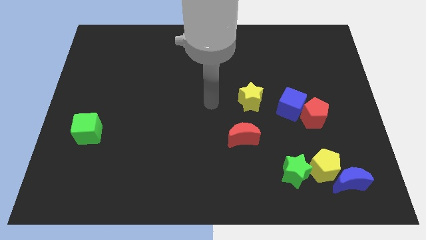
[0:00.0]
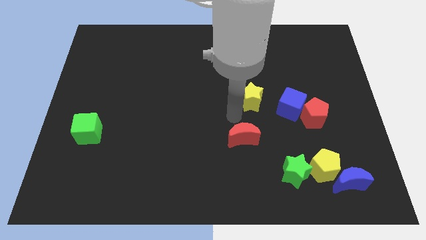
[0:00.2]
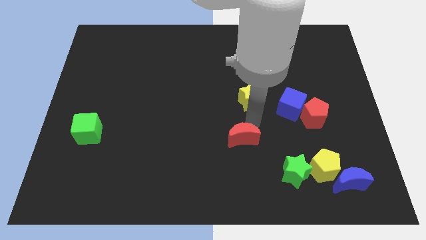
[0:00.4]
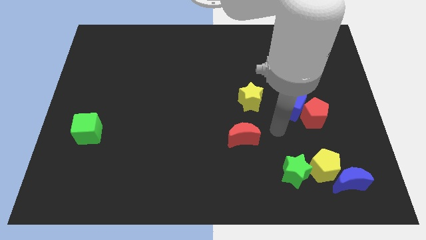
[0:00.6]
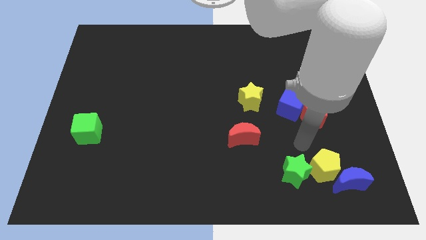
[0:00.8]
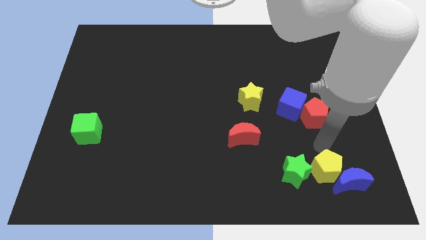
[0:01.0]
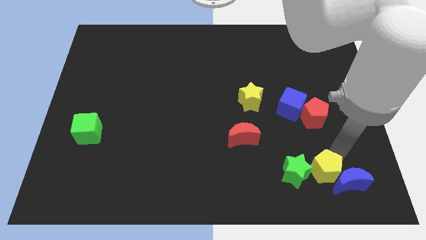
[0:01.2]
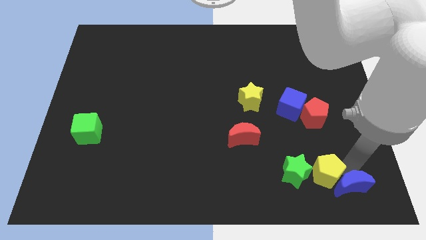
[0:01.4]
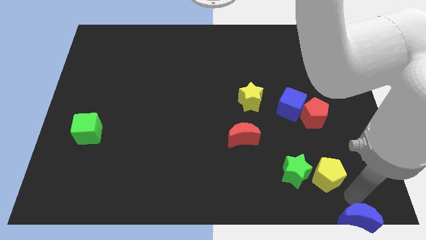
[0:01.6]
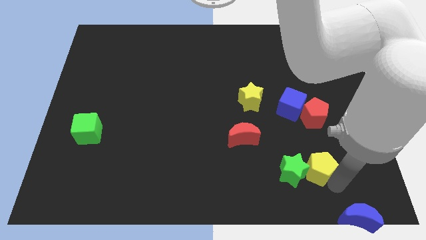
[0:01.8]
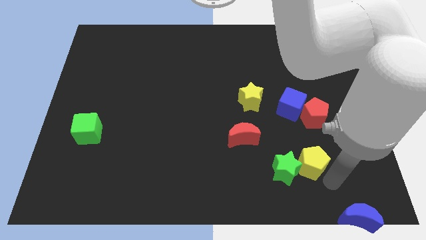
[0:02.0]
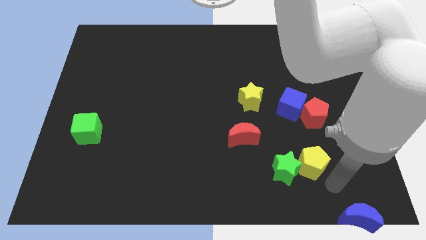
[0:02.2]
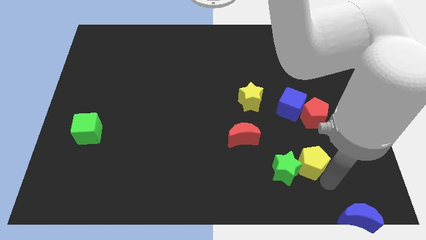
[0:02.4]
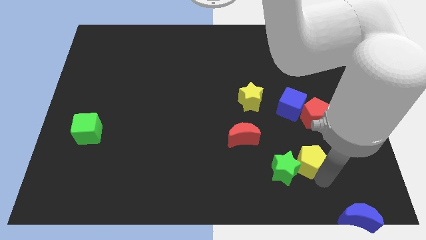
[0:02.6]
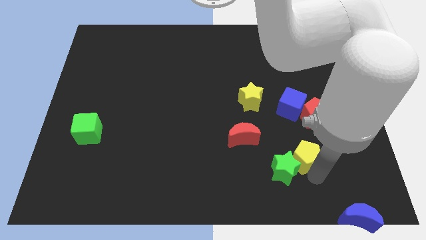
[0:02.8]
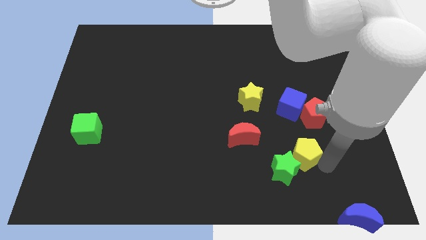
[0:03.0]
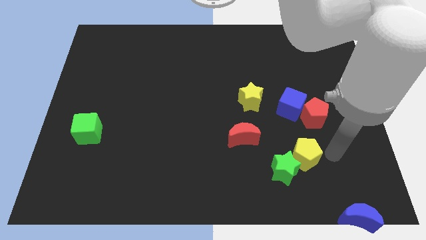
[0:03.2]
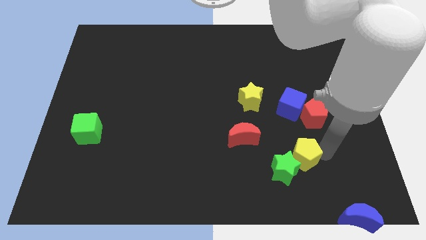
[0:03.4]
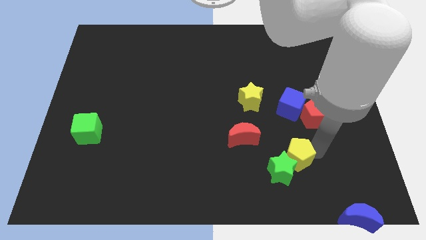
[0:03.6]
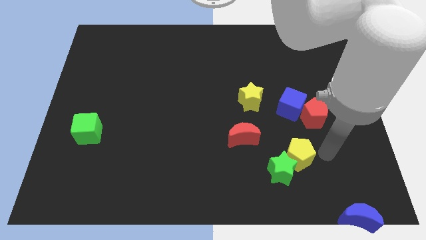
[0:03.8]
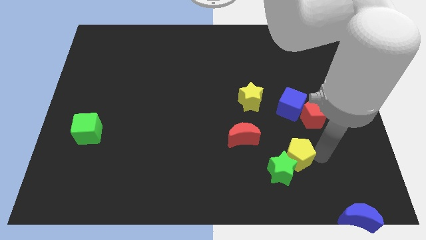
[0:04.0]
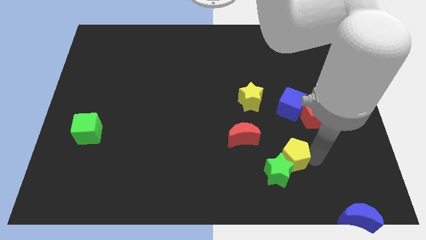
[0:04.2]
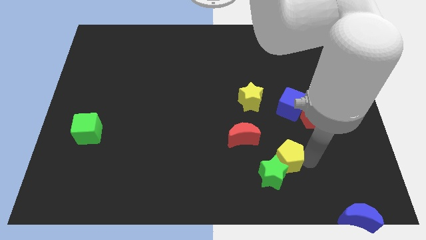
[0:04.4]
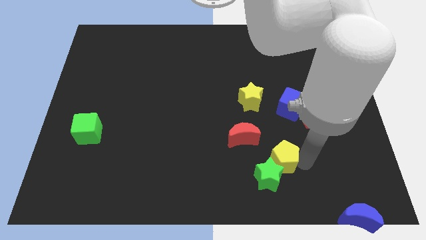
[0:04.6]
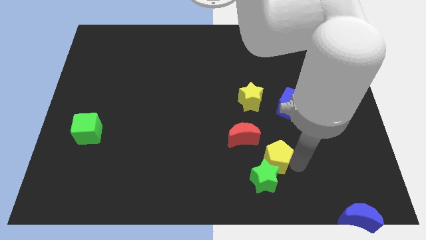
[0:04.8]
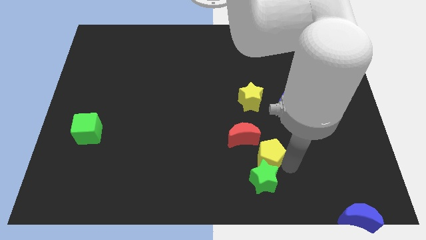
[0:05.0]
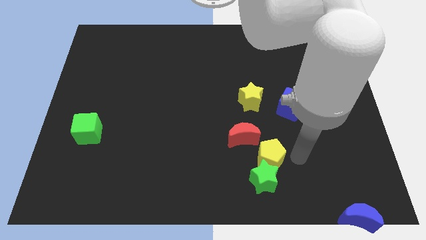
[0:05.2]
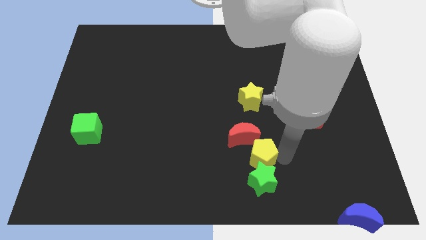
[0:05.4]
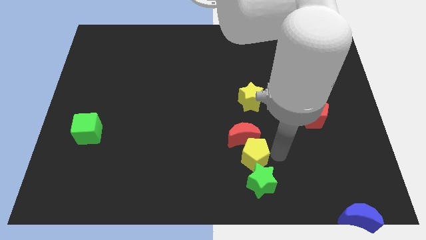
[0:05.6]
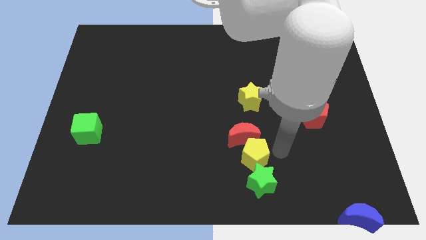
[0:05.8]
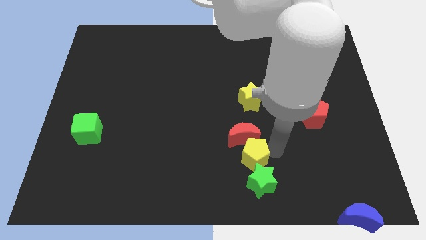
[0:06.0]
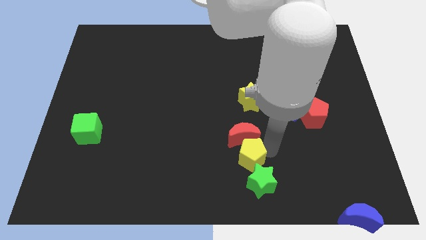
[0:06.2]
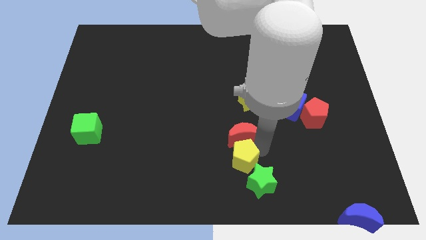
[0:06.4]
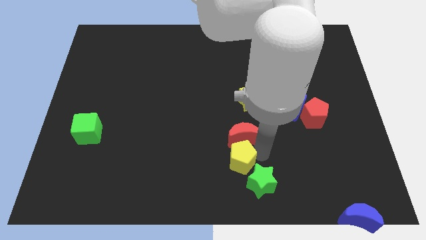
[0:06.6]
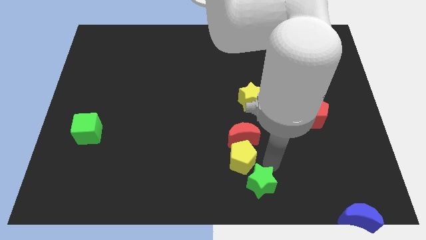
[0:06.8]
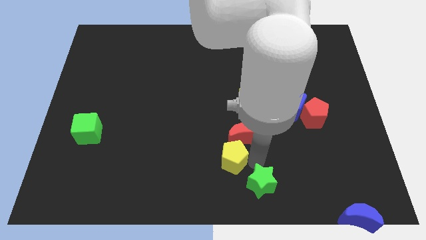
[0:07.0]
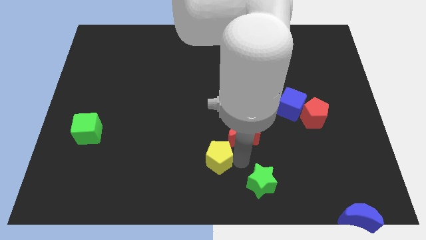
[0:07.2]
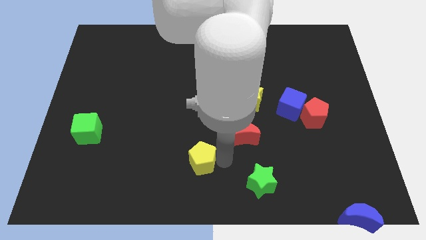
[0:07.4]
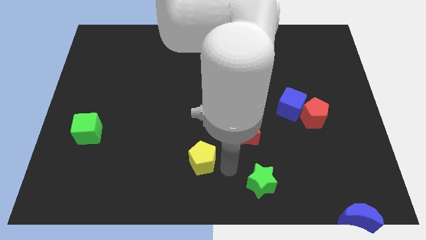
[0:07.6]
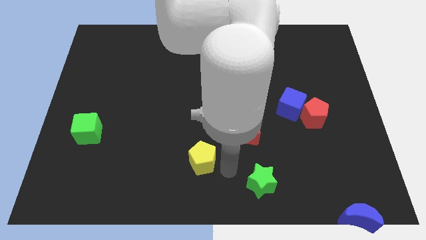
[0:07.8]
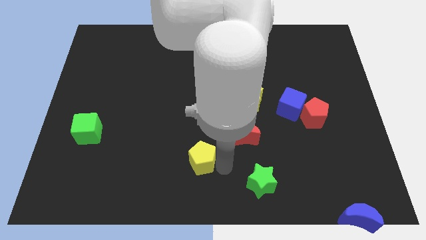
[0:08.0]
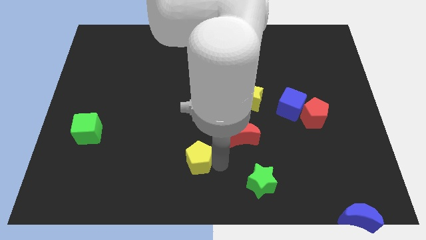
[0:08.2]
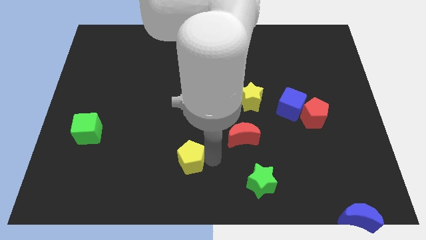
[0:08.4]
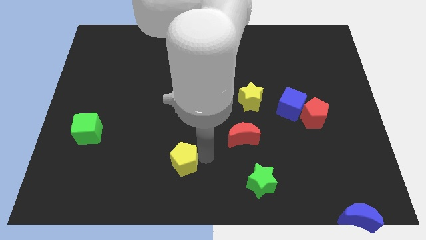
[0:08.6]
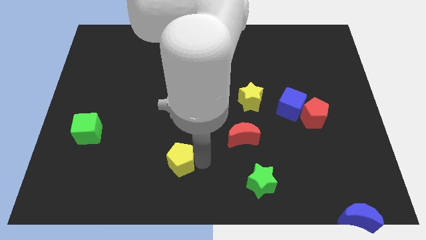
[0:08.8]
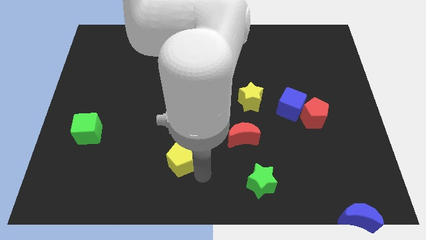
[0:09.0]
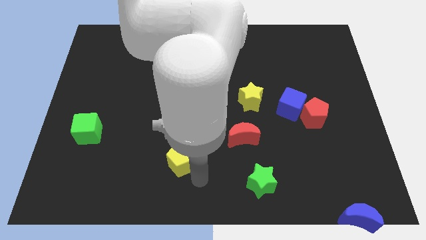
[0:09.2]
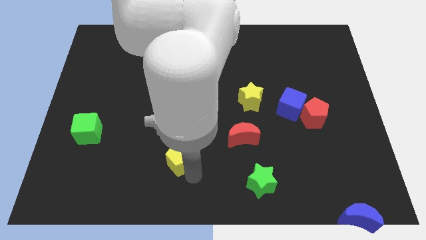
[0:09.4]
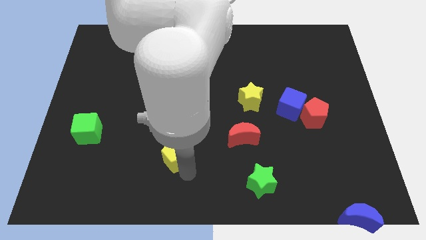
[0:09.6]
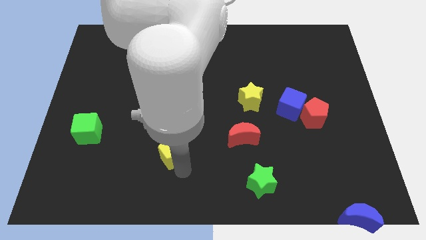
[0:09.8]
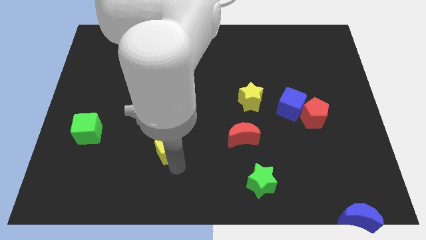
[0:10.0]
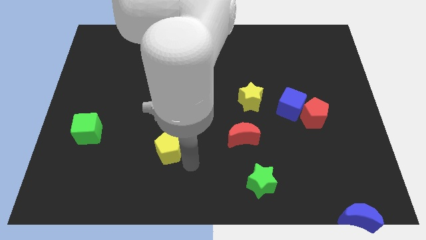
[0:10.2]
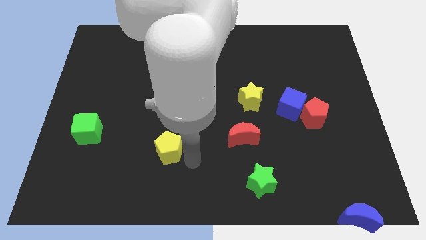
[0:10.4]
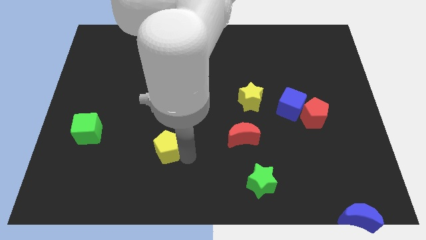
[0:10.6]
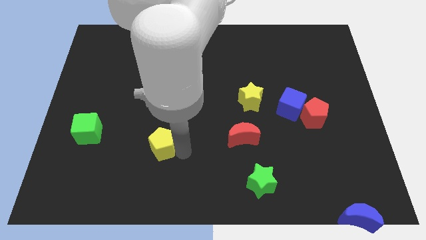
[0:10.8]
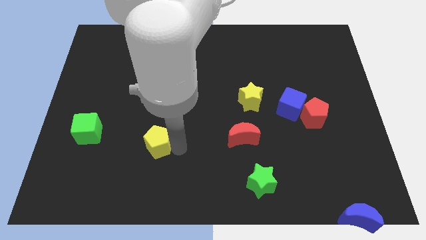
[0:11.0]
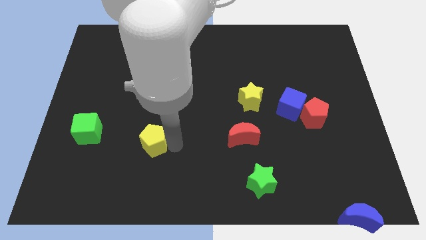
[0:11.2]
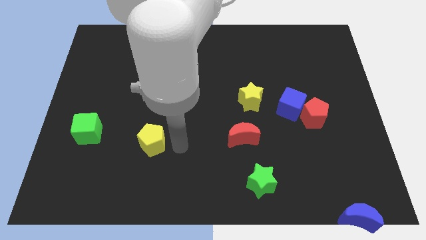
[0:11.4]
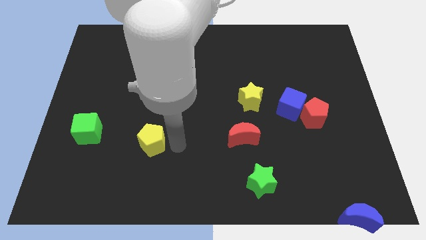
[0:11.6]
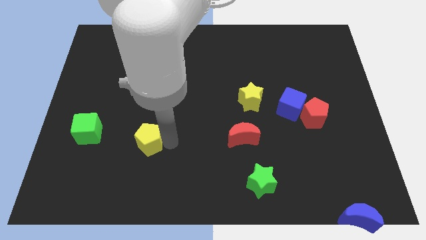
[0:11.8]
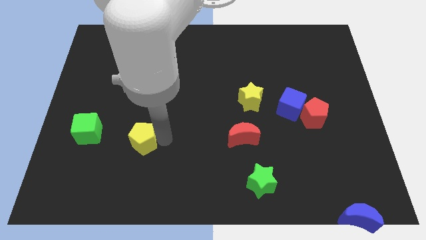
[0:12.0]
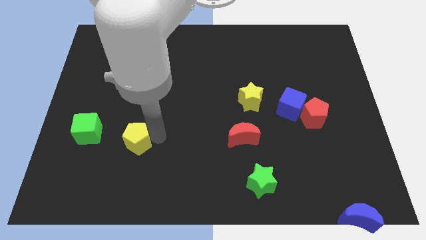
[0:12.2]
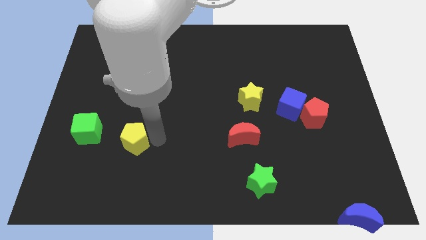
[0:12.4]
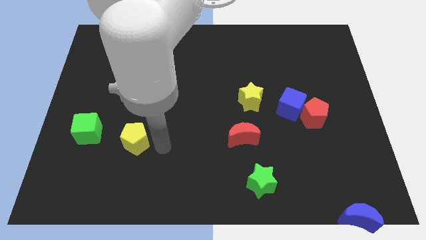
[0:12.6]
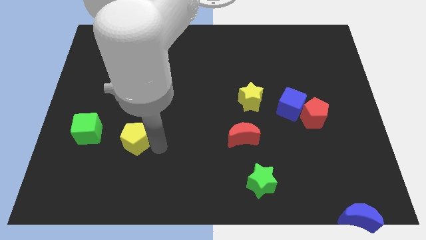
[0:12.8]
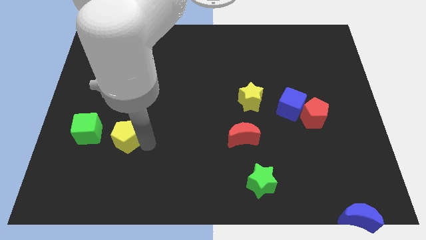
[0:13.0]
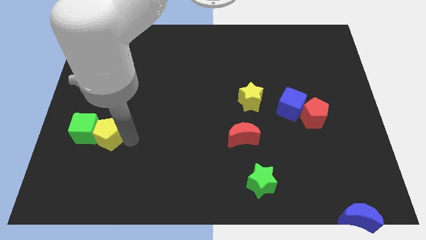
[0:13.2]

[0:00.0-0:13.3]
push the yellow pentagon to the green cube

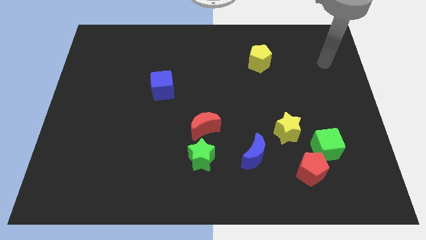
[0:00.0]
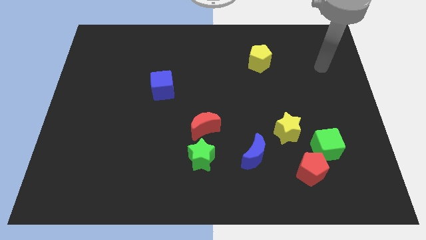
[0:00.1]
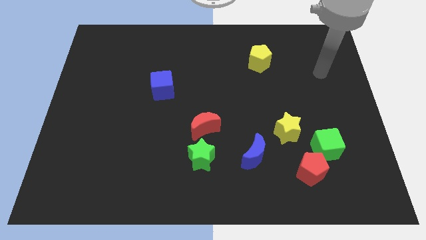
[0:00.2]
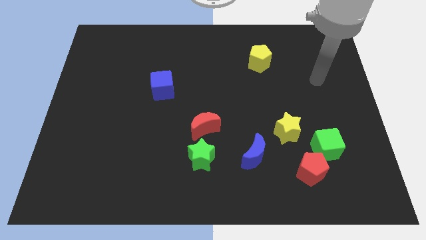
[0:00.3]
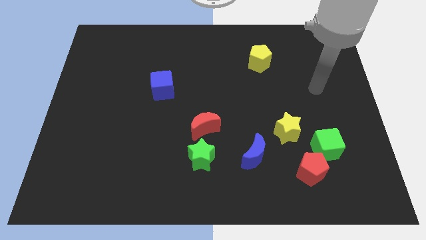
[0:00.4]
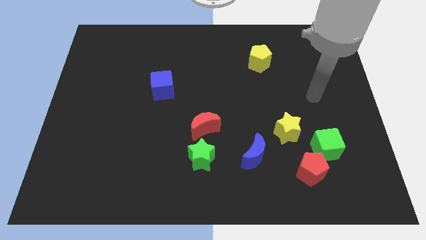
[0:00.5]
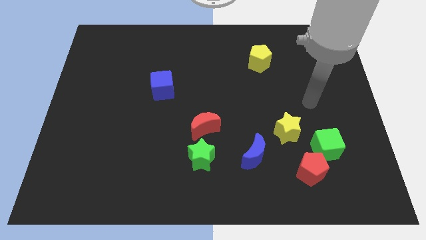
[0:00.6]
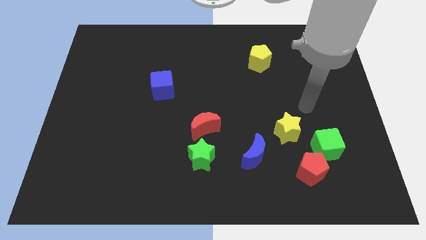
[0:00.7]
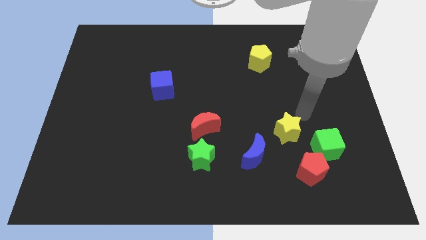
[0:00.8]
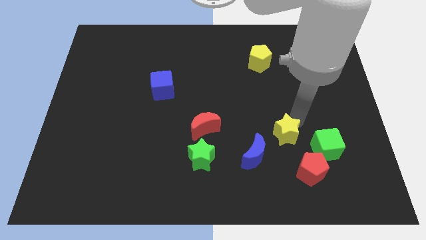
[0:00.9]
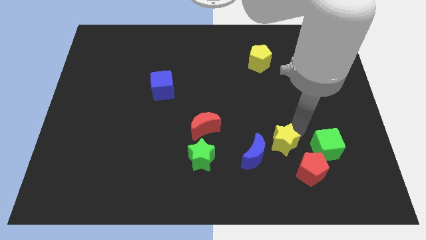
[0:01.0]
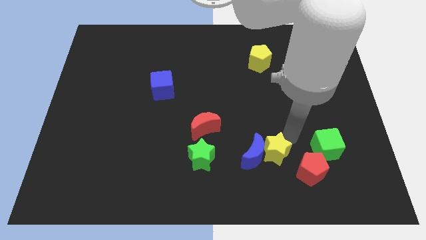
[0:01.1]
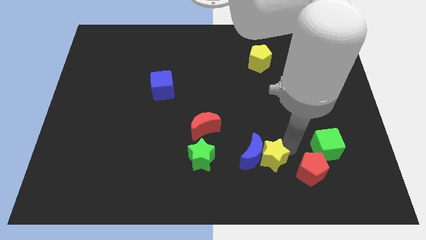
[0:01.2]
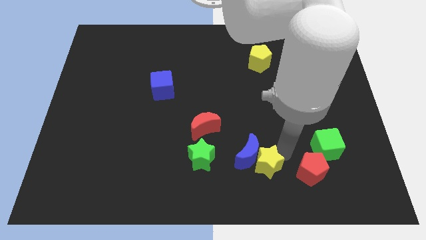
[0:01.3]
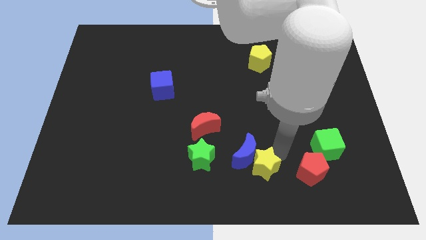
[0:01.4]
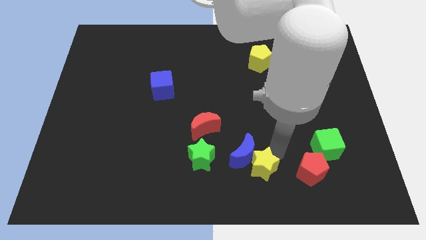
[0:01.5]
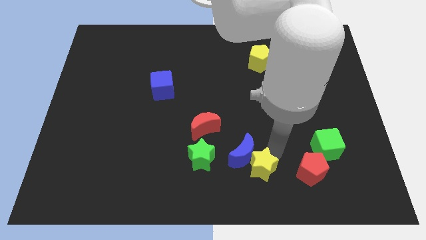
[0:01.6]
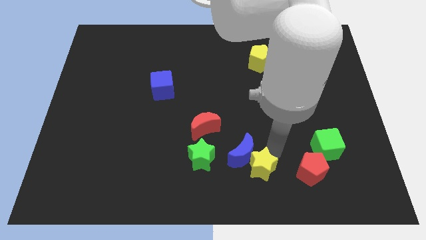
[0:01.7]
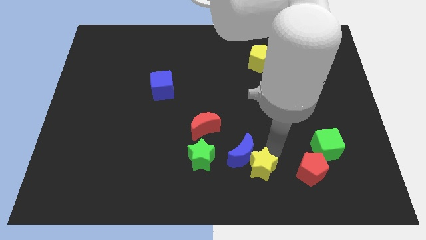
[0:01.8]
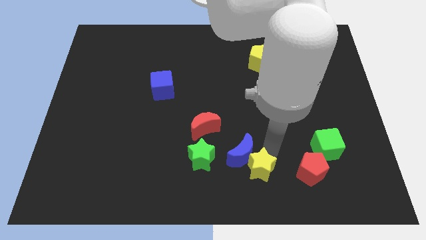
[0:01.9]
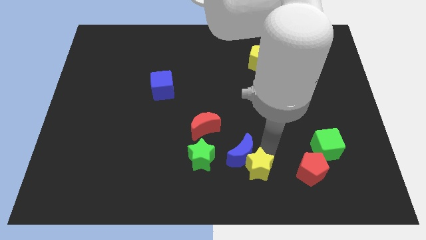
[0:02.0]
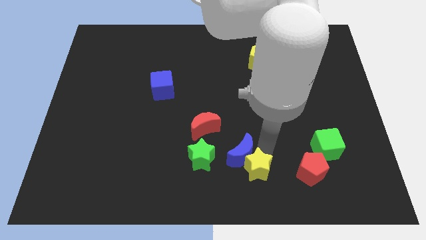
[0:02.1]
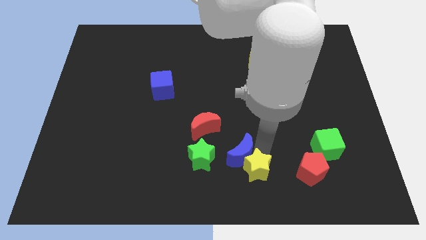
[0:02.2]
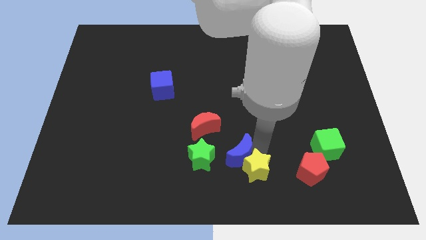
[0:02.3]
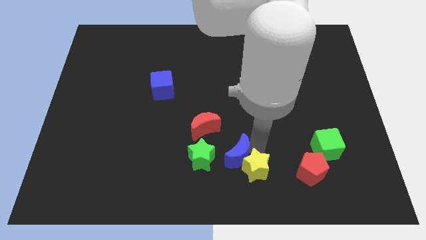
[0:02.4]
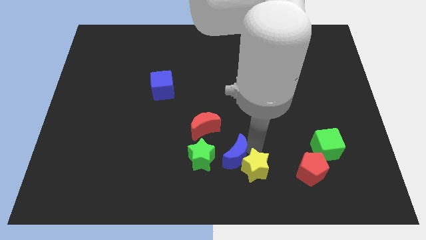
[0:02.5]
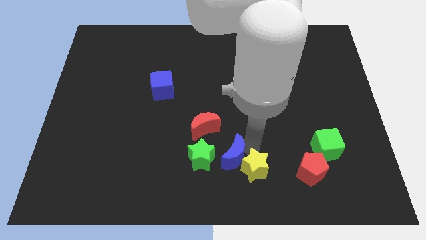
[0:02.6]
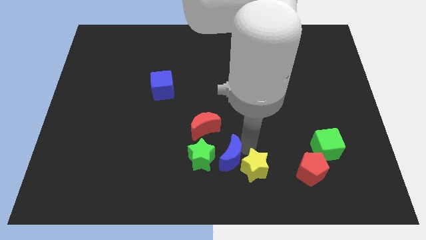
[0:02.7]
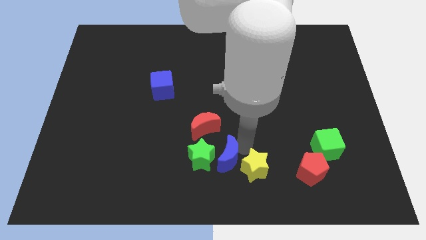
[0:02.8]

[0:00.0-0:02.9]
push the blue moon next to the green star
